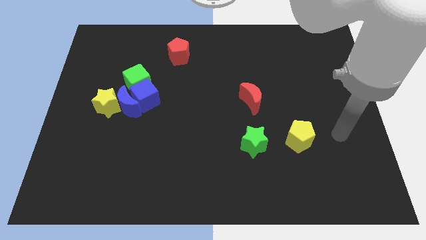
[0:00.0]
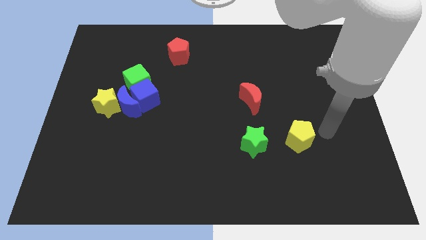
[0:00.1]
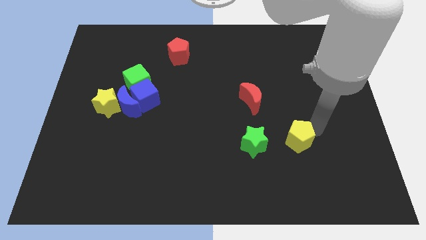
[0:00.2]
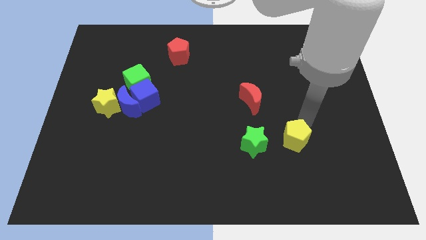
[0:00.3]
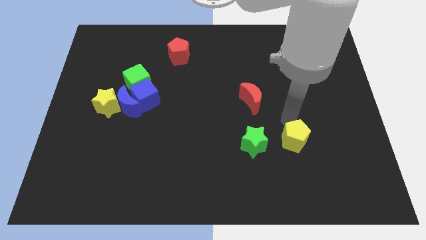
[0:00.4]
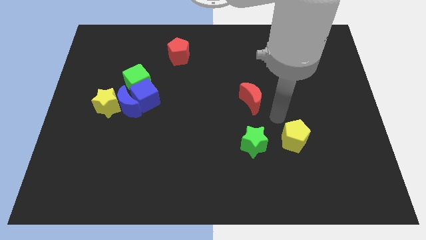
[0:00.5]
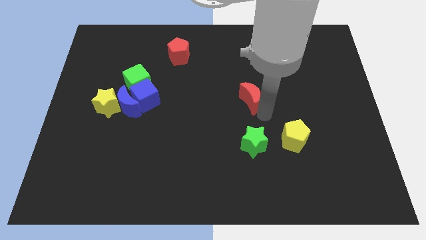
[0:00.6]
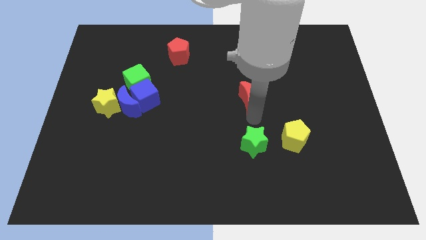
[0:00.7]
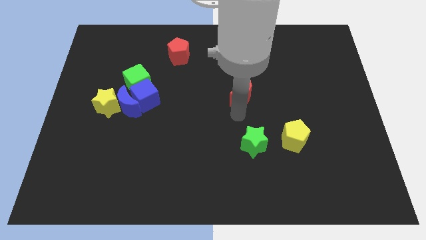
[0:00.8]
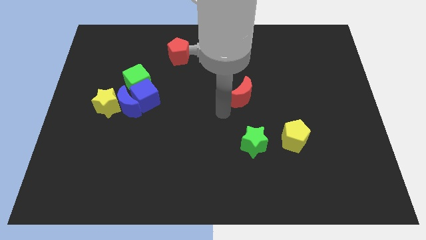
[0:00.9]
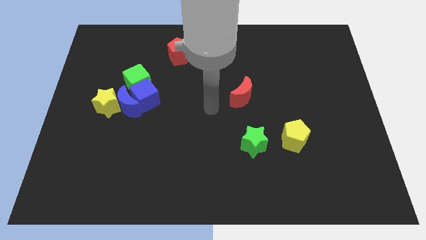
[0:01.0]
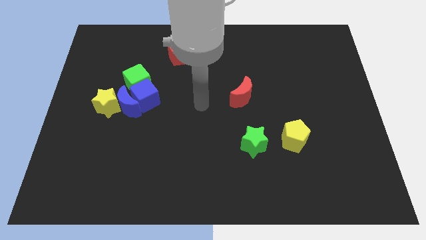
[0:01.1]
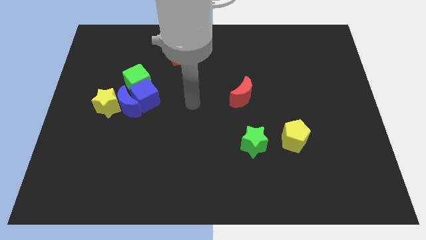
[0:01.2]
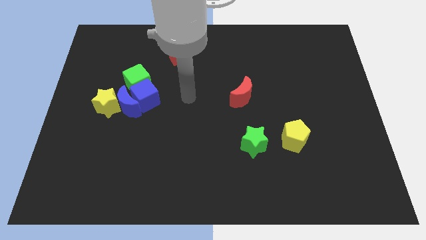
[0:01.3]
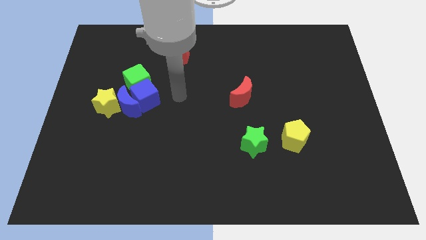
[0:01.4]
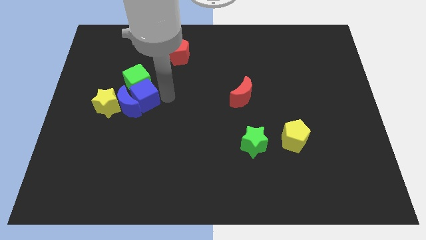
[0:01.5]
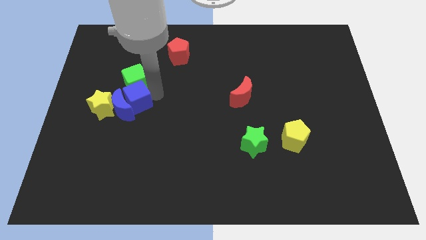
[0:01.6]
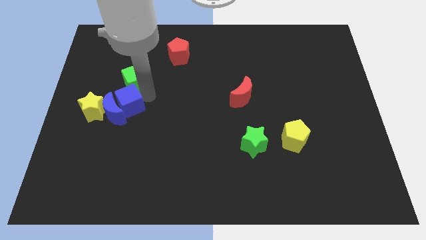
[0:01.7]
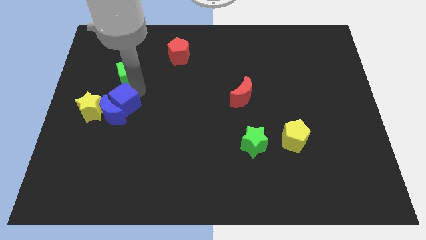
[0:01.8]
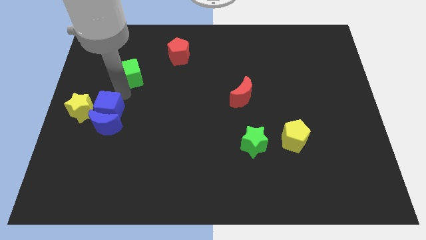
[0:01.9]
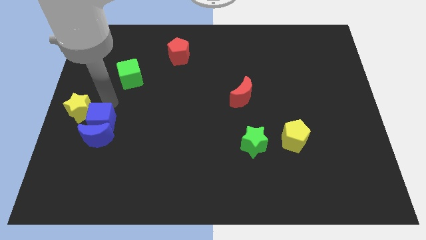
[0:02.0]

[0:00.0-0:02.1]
separate the blue moon from the group of blocks

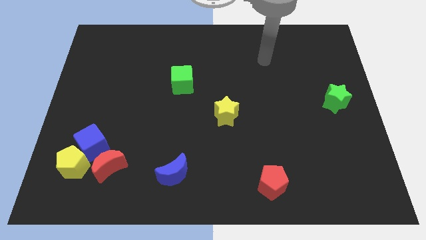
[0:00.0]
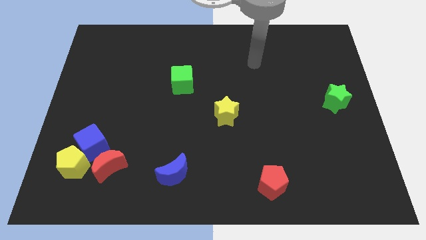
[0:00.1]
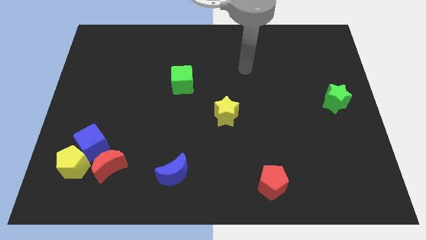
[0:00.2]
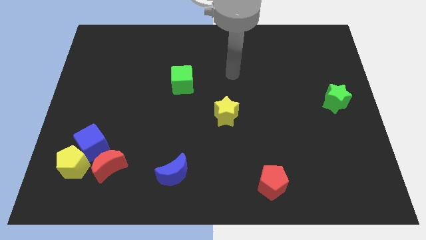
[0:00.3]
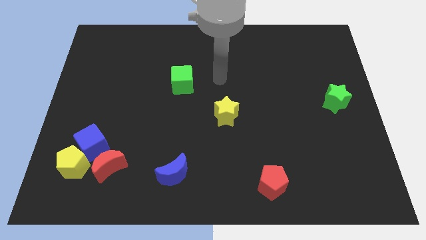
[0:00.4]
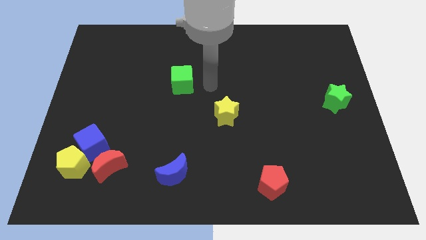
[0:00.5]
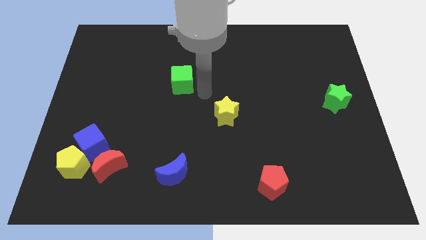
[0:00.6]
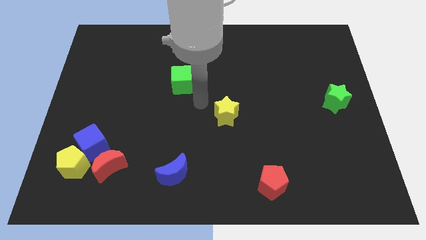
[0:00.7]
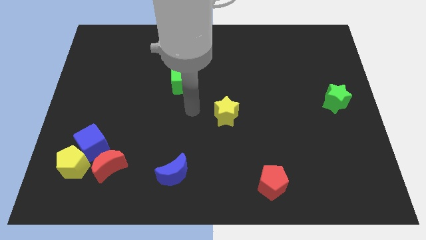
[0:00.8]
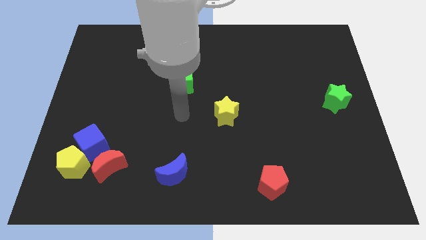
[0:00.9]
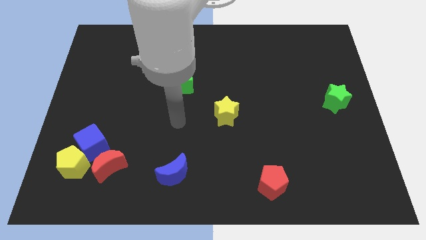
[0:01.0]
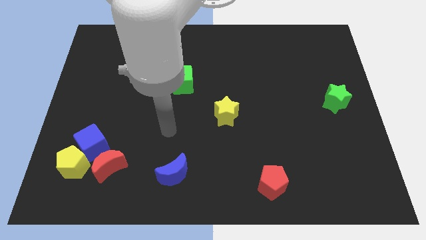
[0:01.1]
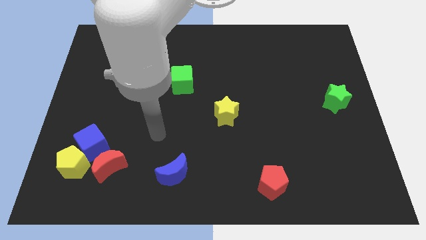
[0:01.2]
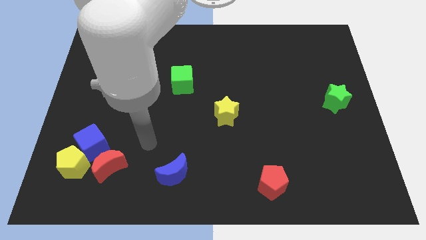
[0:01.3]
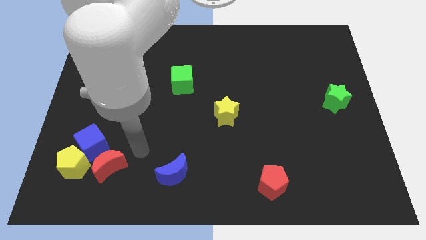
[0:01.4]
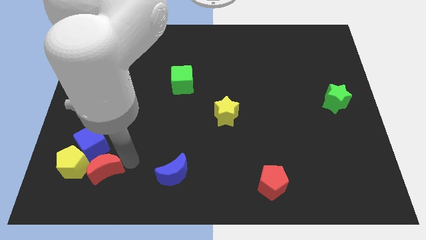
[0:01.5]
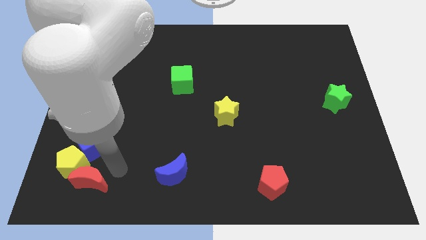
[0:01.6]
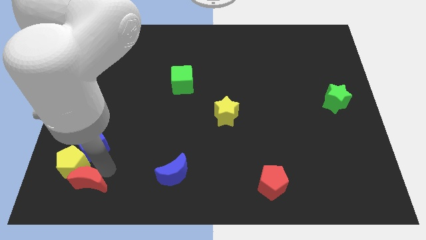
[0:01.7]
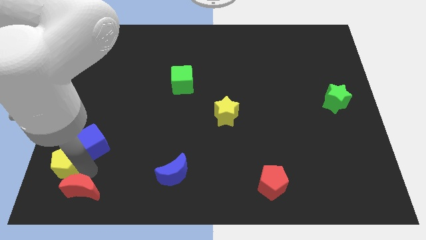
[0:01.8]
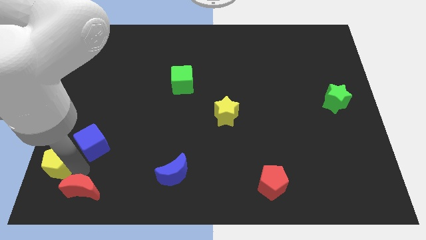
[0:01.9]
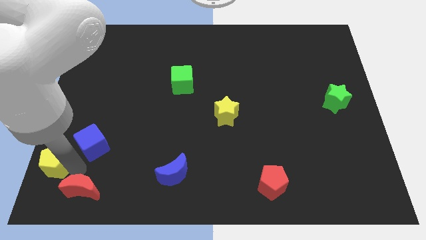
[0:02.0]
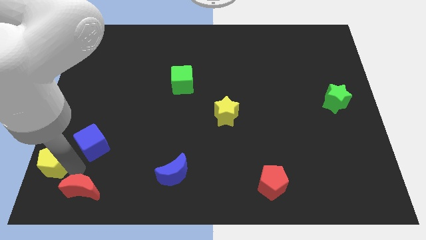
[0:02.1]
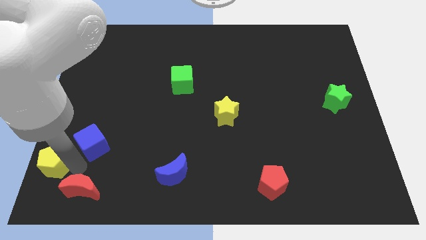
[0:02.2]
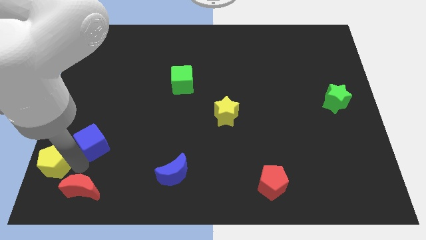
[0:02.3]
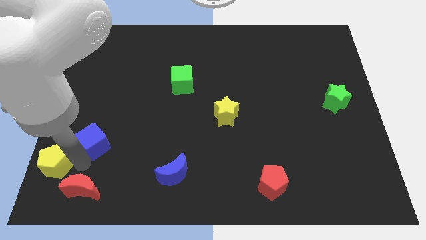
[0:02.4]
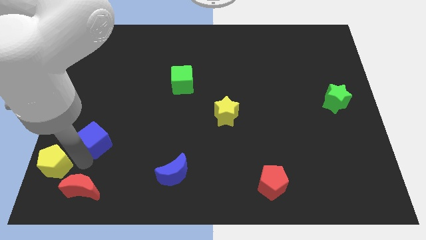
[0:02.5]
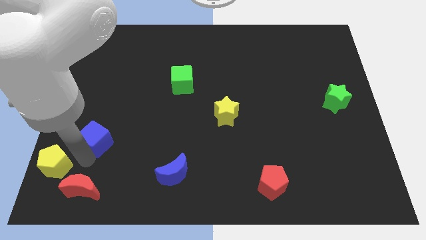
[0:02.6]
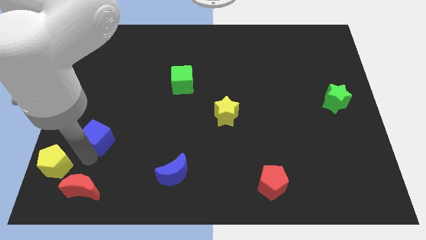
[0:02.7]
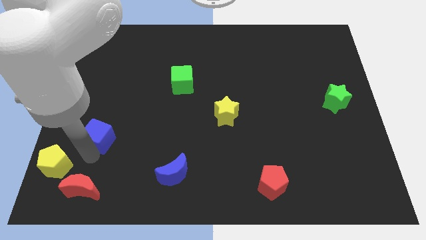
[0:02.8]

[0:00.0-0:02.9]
separate the blue cube from the yellow pentagon and red moon

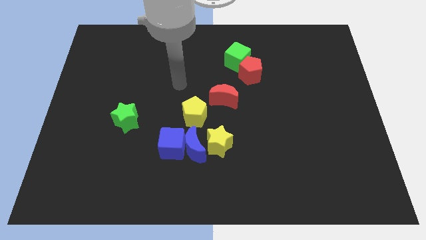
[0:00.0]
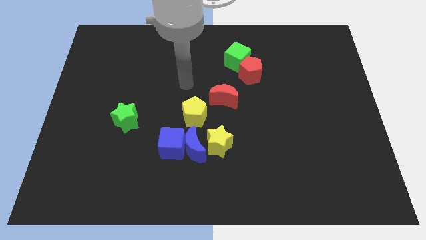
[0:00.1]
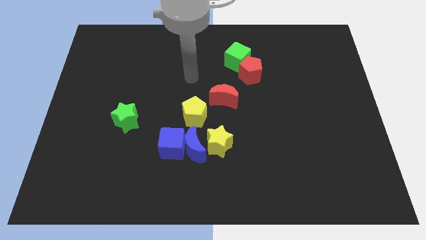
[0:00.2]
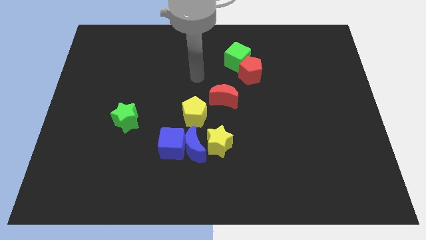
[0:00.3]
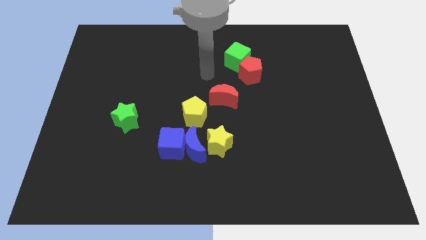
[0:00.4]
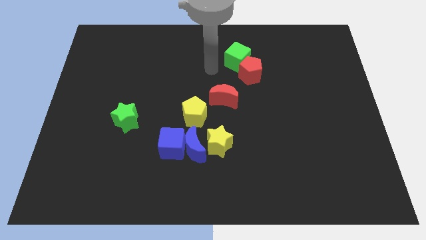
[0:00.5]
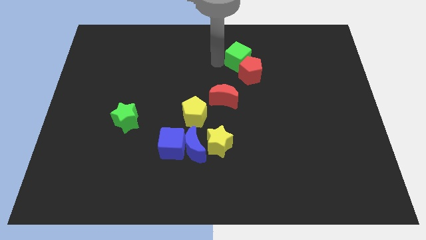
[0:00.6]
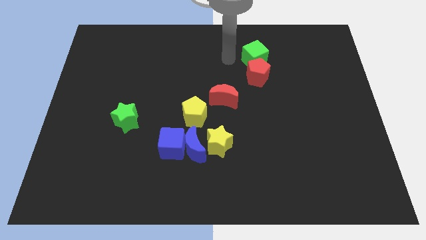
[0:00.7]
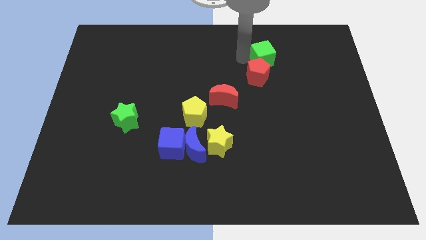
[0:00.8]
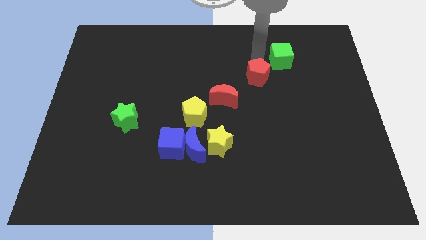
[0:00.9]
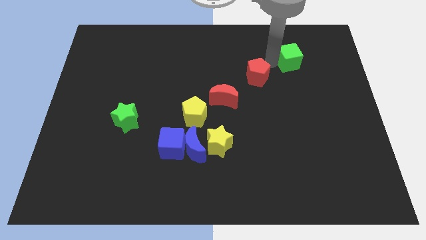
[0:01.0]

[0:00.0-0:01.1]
move the red pentagon away from the green cube

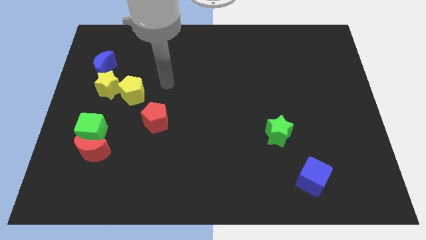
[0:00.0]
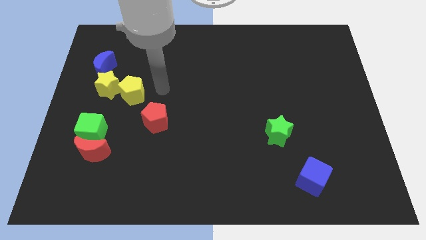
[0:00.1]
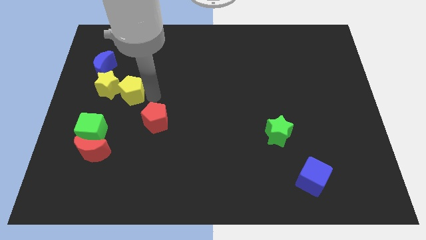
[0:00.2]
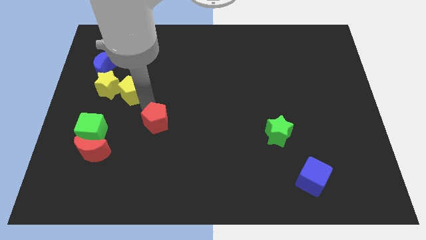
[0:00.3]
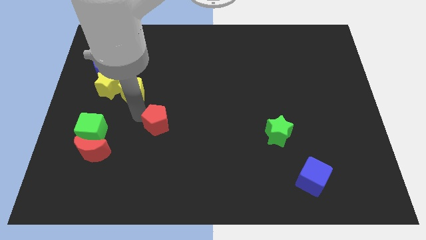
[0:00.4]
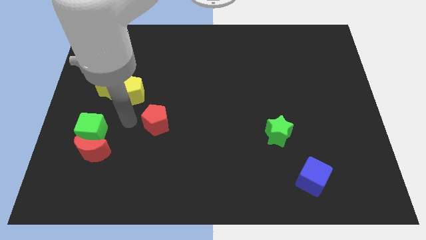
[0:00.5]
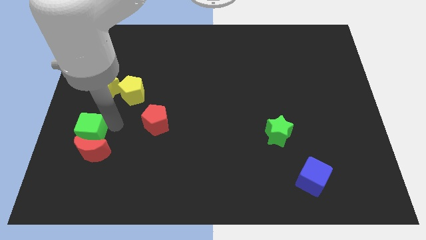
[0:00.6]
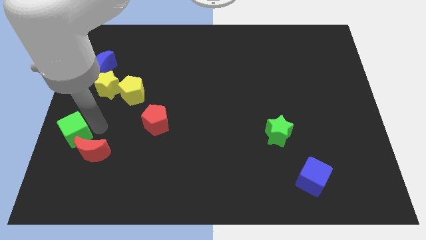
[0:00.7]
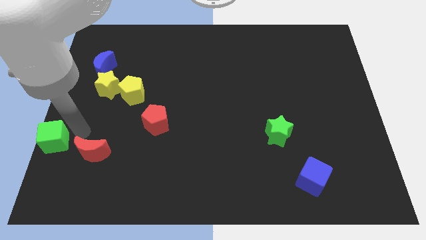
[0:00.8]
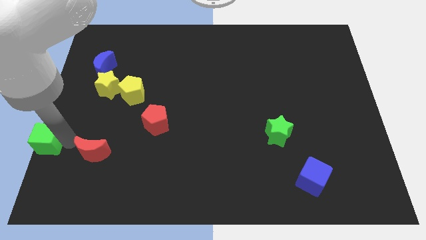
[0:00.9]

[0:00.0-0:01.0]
pull the red moon apart from the green cube

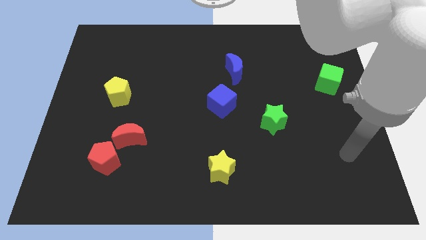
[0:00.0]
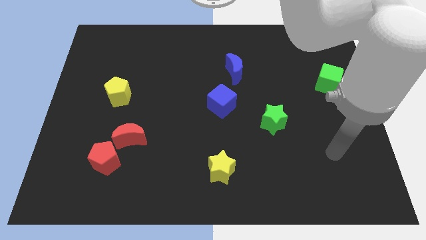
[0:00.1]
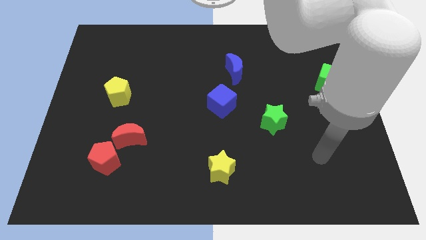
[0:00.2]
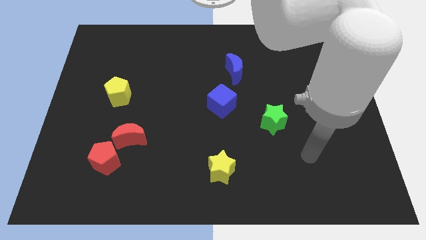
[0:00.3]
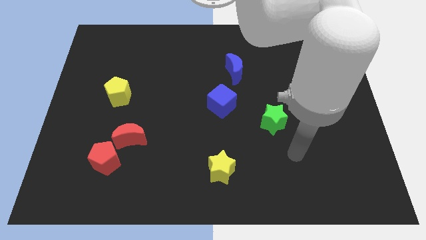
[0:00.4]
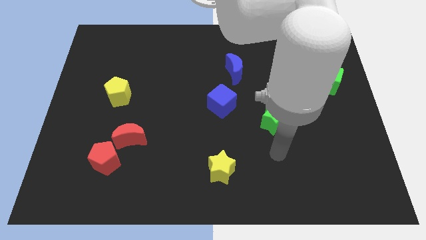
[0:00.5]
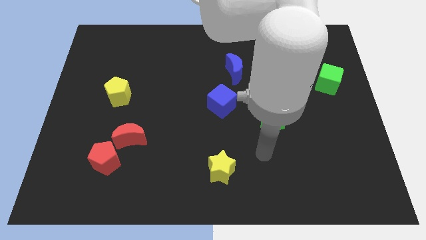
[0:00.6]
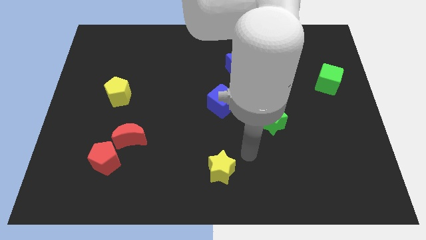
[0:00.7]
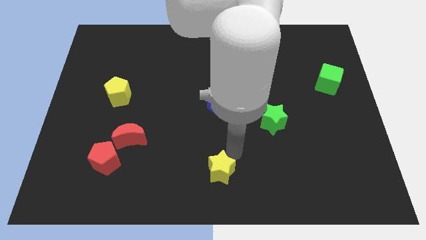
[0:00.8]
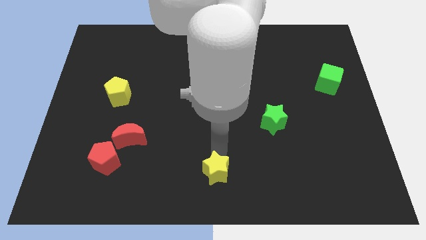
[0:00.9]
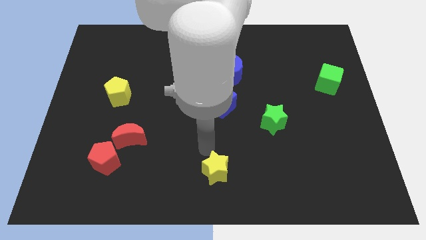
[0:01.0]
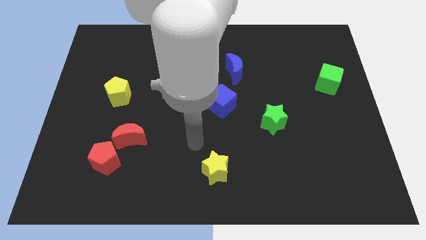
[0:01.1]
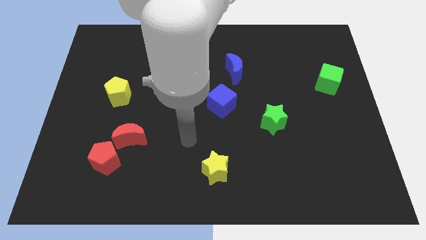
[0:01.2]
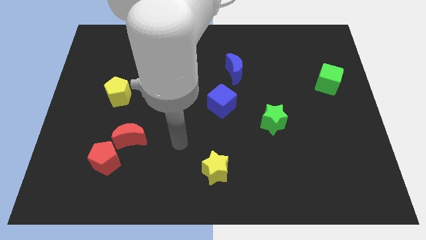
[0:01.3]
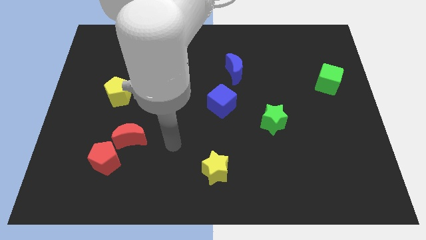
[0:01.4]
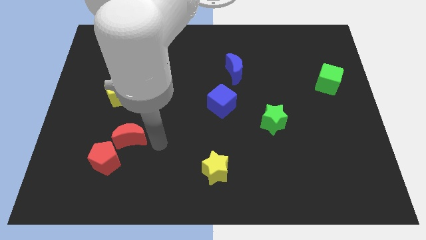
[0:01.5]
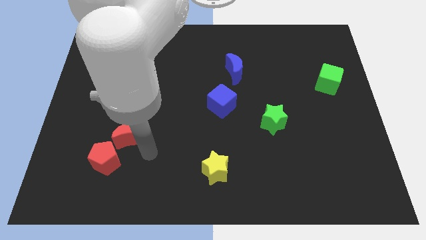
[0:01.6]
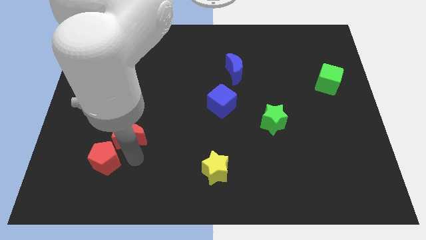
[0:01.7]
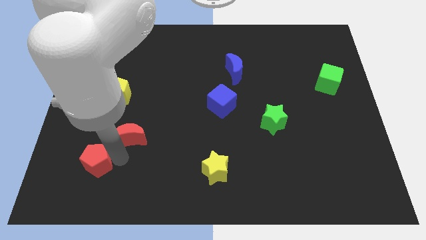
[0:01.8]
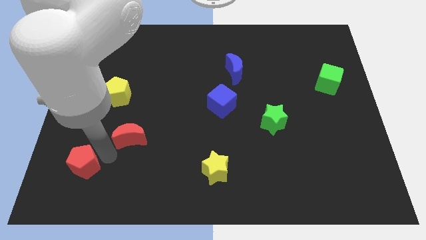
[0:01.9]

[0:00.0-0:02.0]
pull the red moon apart from the red pentagon

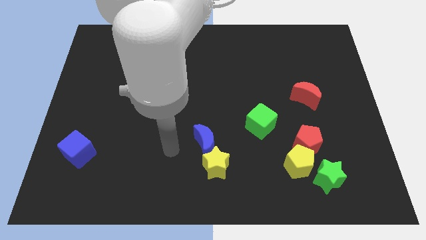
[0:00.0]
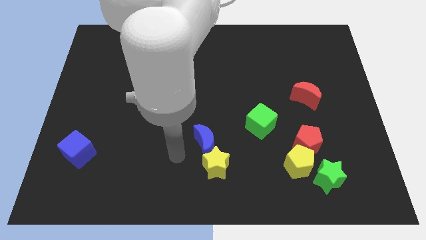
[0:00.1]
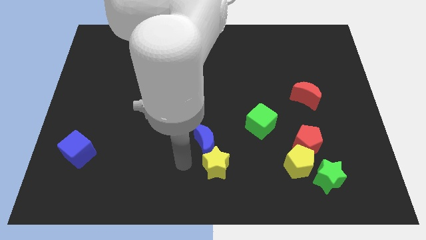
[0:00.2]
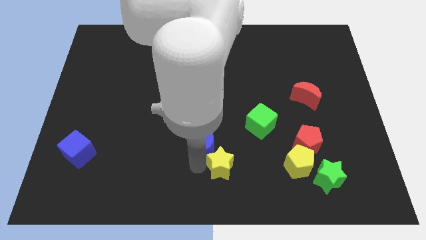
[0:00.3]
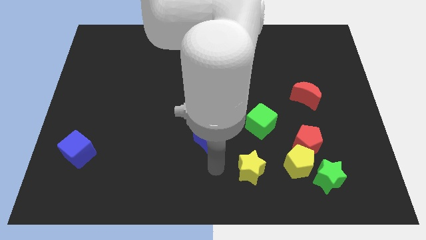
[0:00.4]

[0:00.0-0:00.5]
pull the blue moon apart from the yellow star
